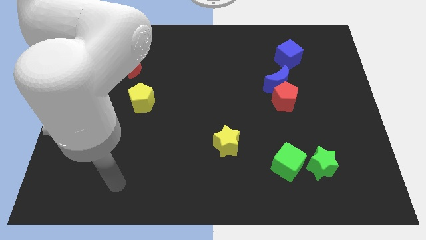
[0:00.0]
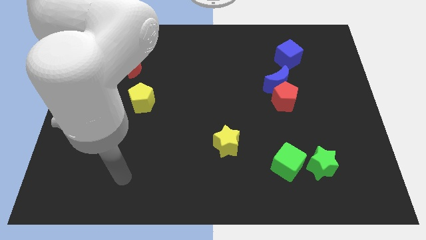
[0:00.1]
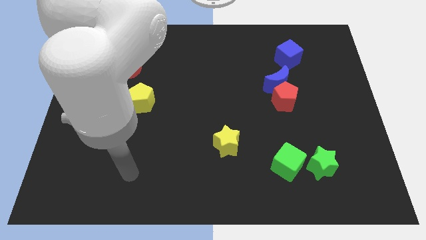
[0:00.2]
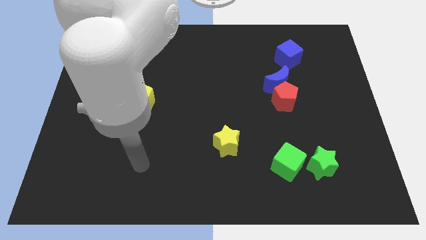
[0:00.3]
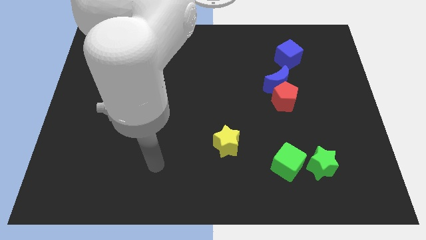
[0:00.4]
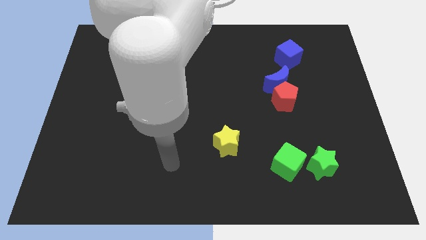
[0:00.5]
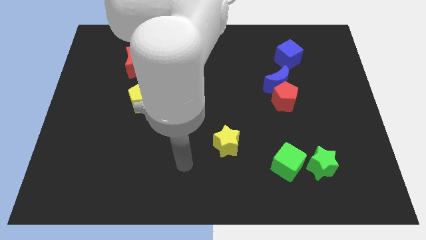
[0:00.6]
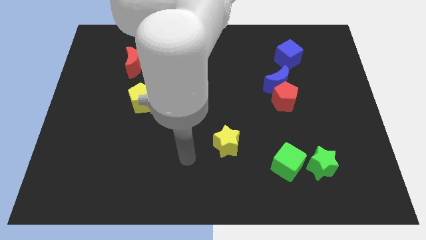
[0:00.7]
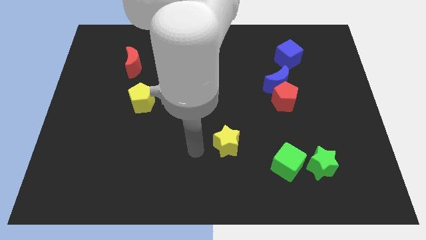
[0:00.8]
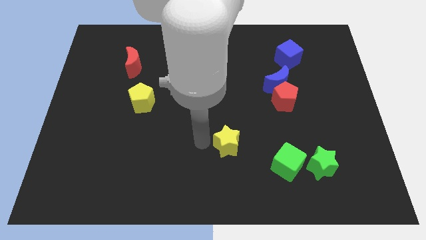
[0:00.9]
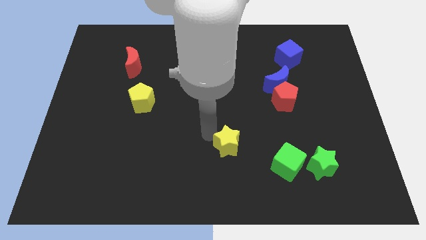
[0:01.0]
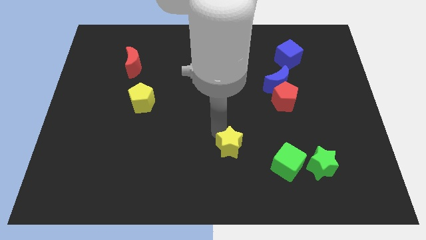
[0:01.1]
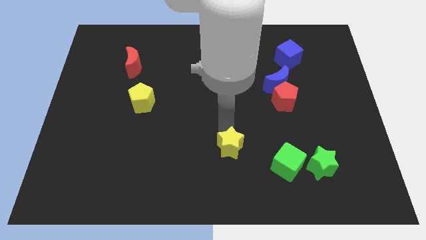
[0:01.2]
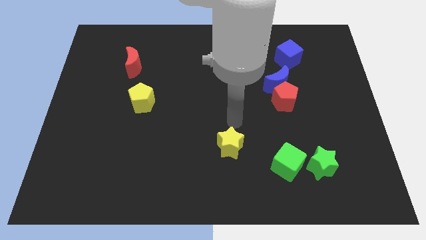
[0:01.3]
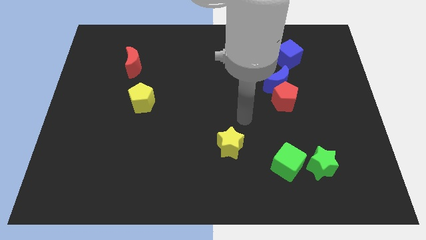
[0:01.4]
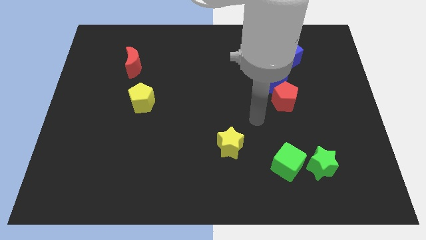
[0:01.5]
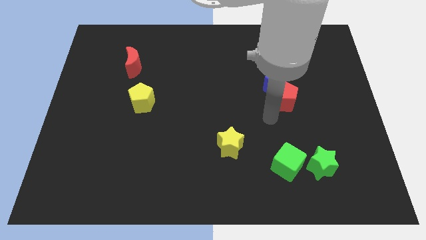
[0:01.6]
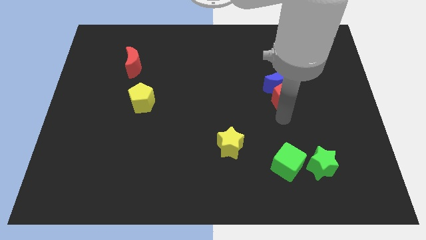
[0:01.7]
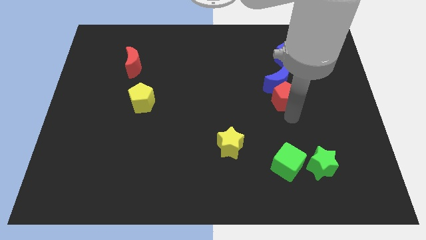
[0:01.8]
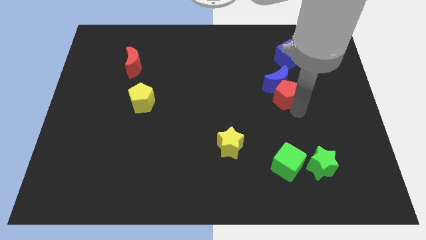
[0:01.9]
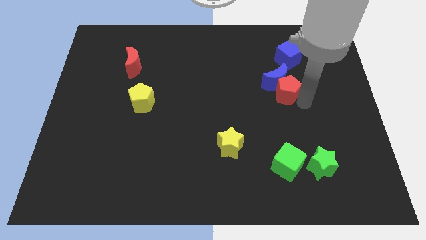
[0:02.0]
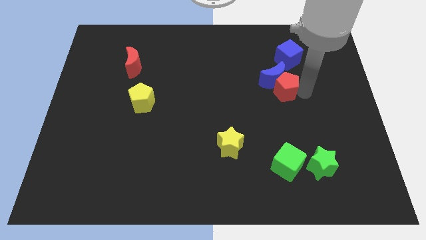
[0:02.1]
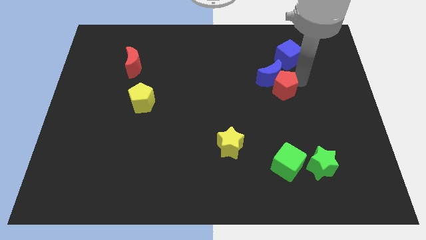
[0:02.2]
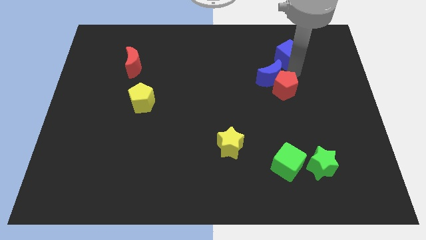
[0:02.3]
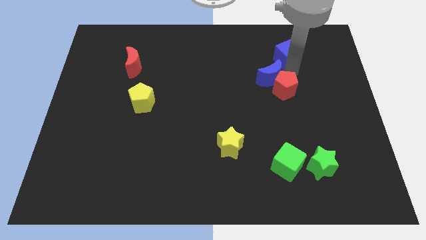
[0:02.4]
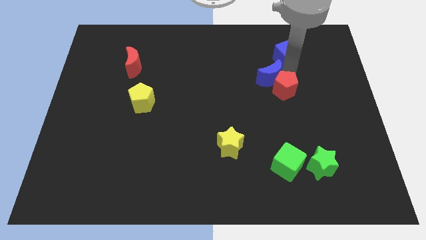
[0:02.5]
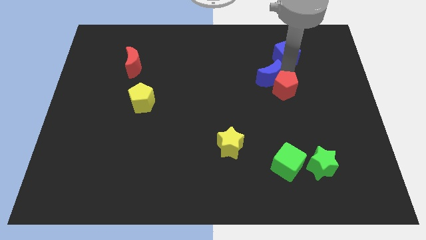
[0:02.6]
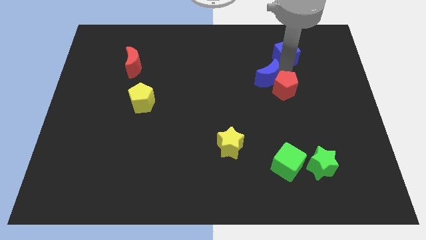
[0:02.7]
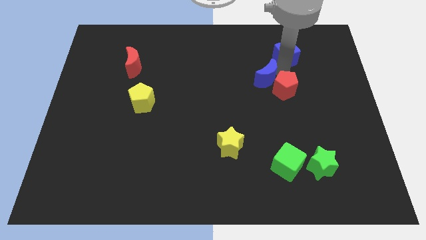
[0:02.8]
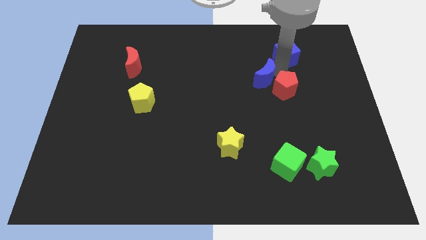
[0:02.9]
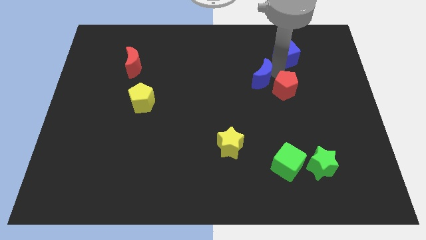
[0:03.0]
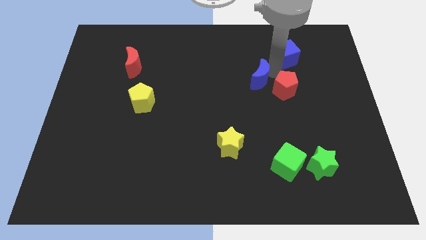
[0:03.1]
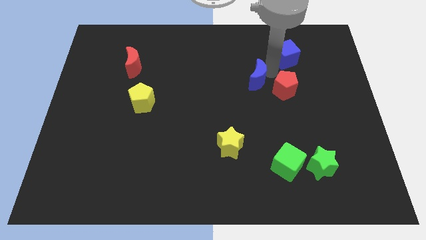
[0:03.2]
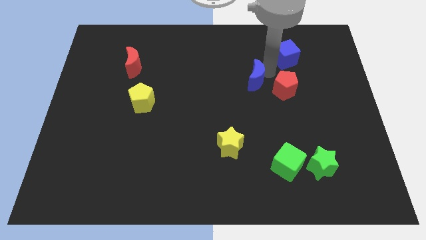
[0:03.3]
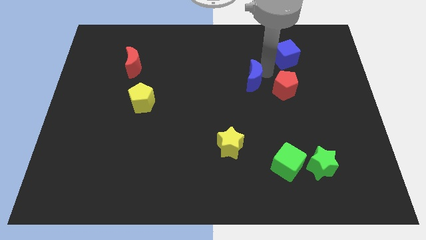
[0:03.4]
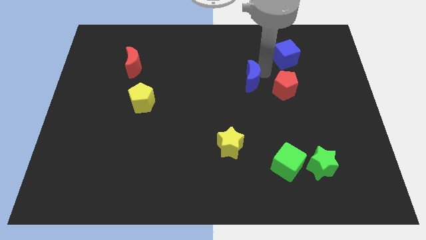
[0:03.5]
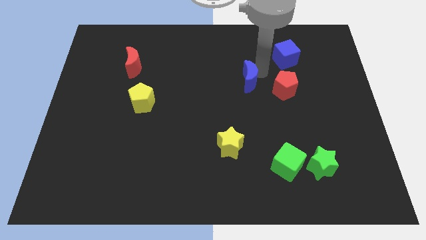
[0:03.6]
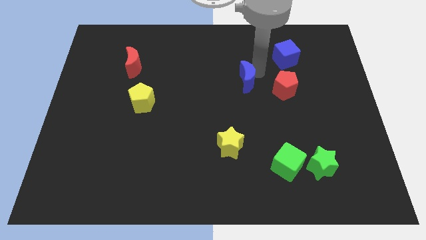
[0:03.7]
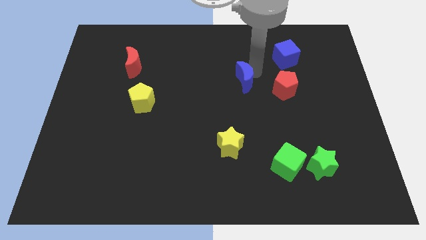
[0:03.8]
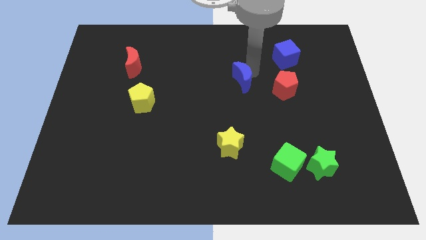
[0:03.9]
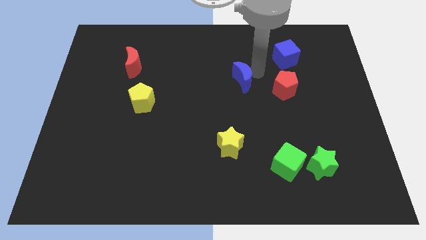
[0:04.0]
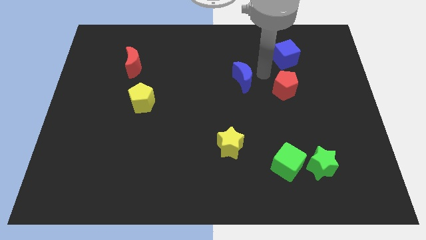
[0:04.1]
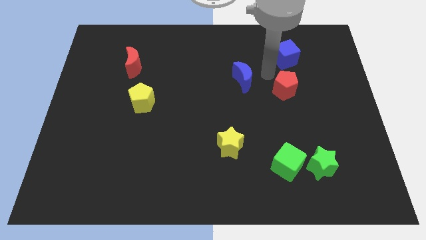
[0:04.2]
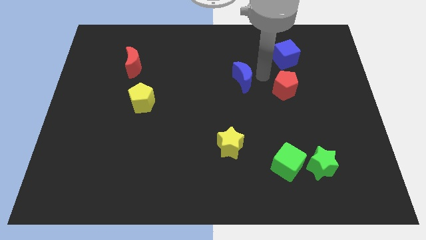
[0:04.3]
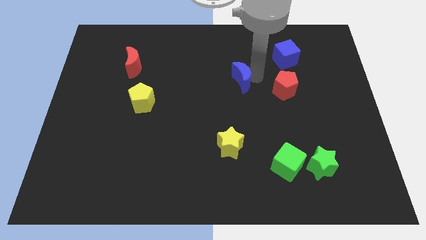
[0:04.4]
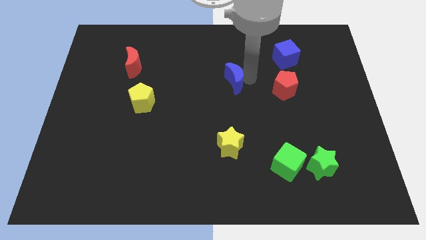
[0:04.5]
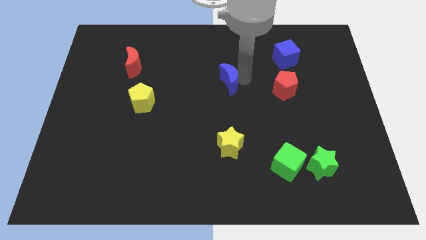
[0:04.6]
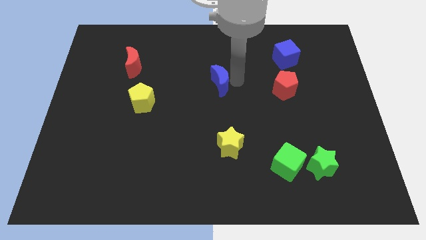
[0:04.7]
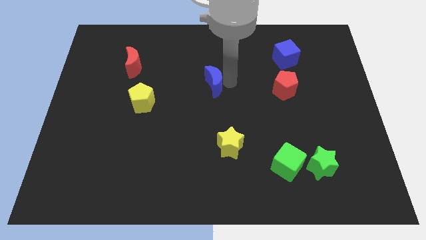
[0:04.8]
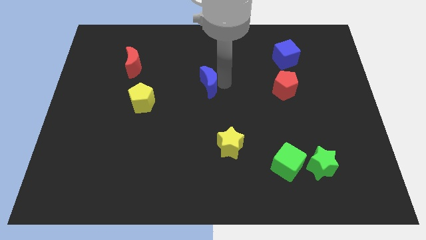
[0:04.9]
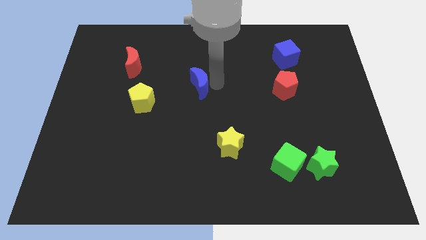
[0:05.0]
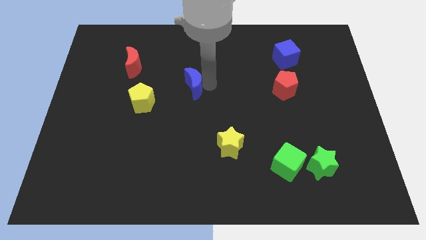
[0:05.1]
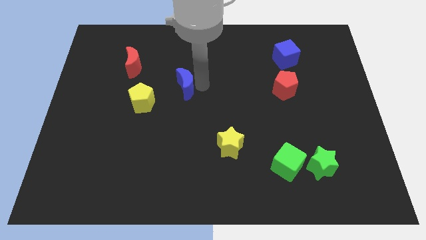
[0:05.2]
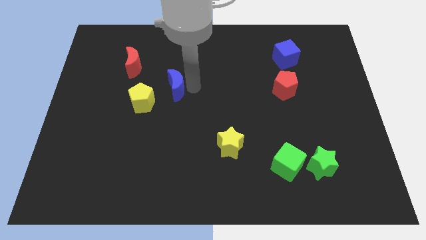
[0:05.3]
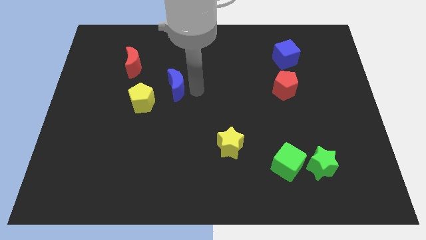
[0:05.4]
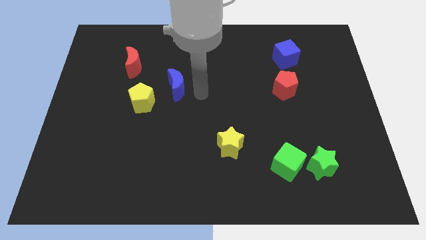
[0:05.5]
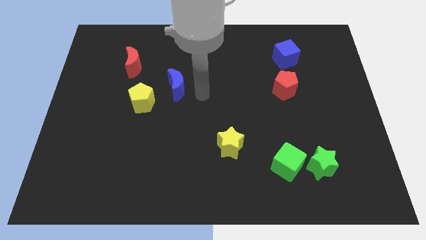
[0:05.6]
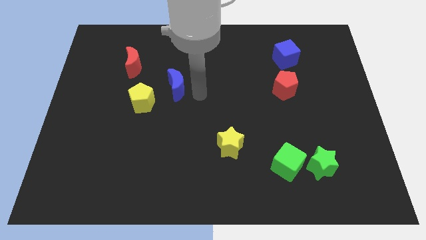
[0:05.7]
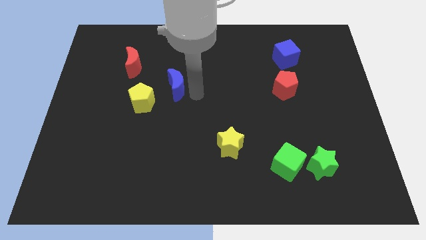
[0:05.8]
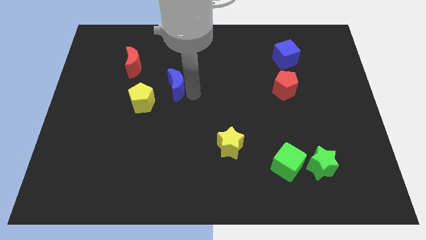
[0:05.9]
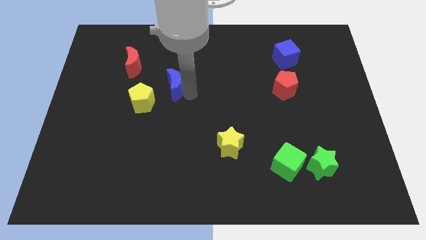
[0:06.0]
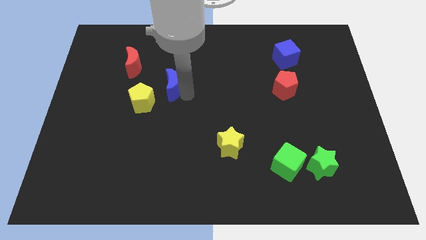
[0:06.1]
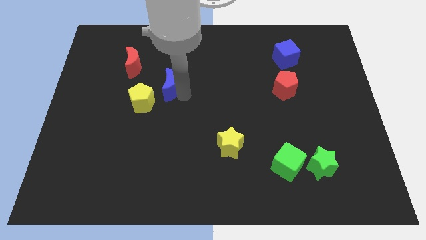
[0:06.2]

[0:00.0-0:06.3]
slide the blue moon to the bottom right side of the red moon
